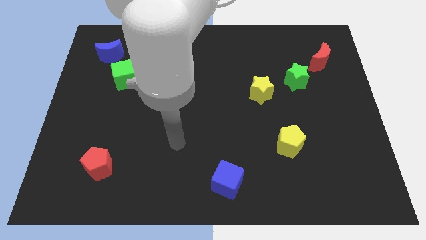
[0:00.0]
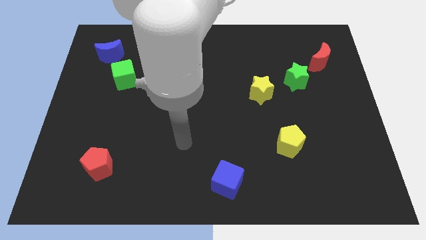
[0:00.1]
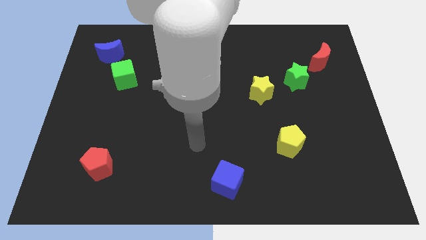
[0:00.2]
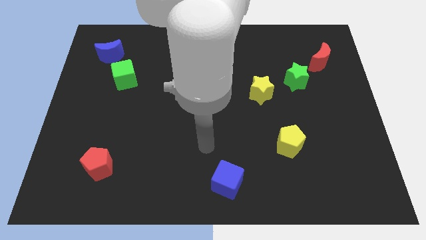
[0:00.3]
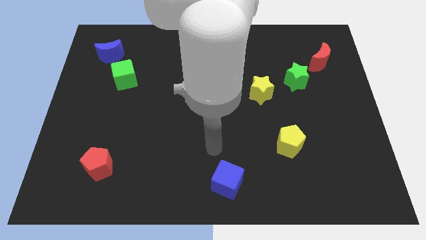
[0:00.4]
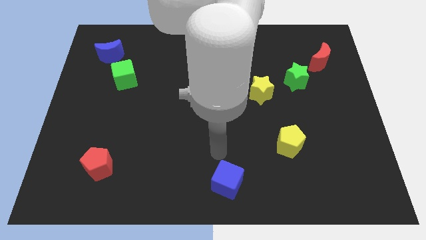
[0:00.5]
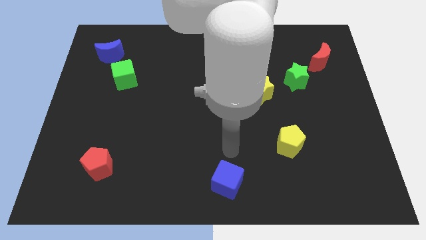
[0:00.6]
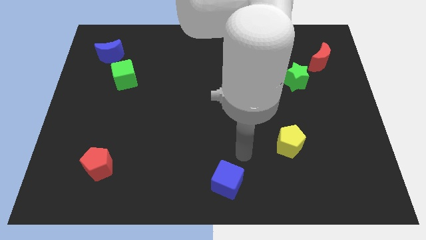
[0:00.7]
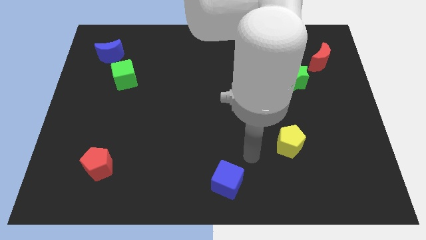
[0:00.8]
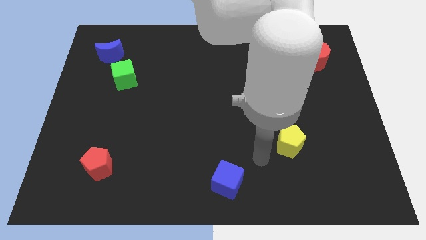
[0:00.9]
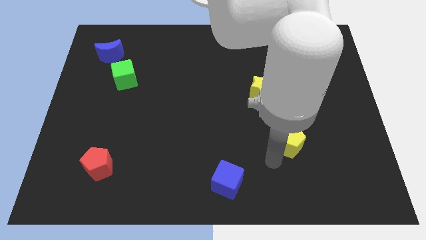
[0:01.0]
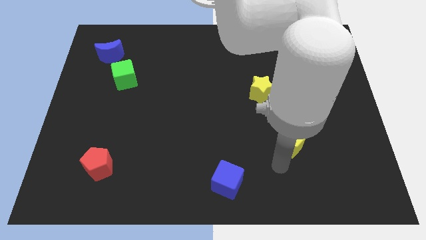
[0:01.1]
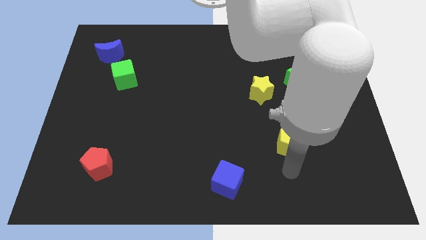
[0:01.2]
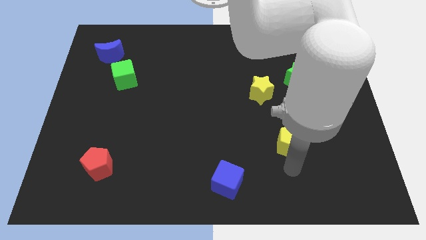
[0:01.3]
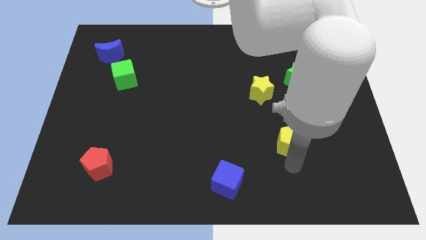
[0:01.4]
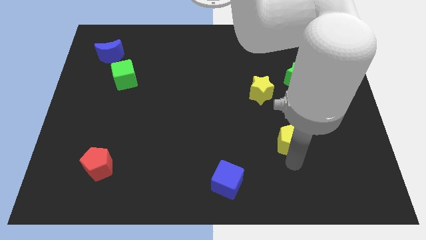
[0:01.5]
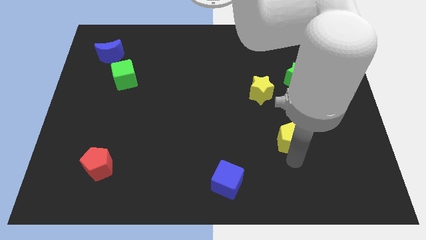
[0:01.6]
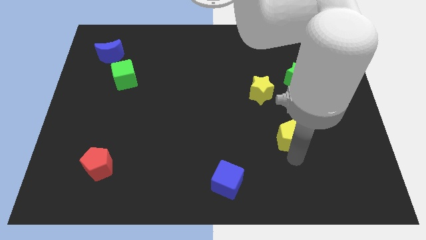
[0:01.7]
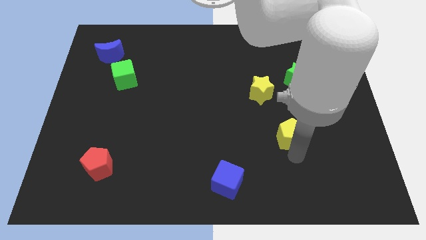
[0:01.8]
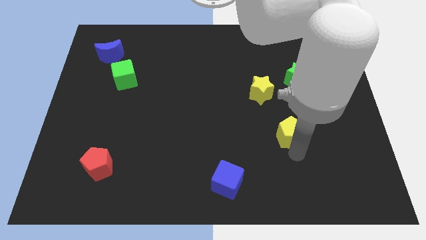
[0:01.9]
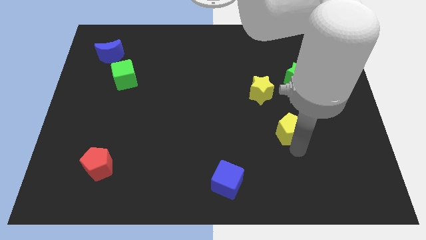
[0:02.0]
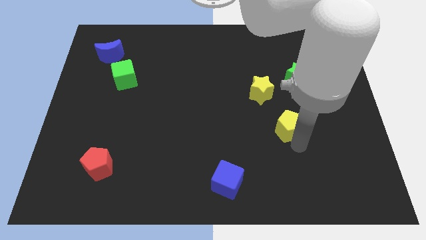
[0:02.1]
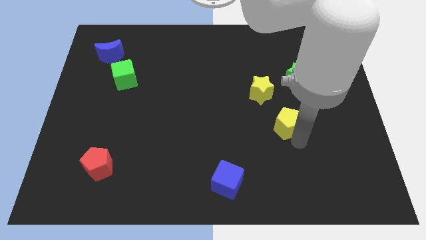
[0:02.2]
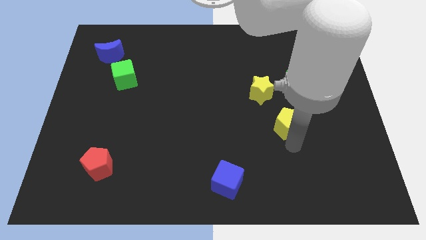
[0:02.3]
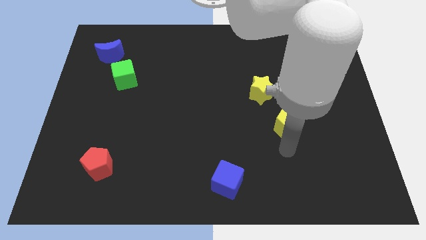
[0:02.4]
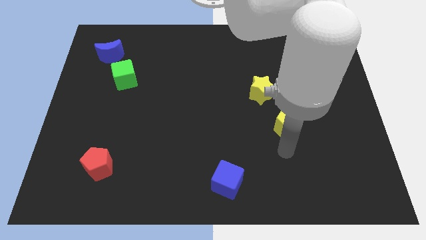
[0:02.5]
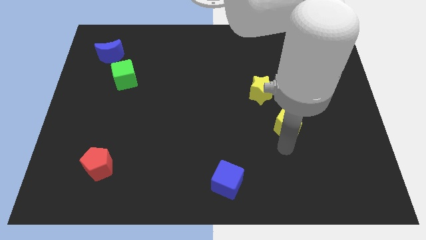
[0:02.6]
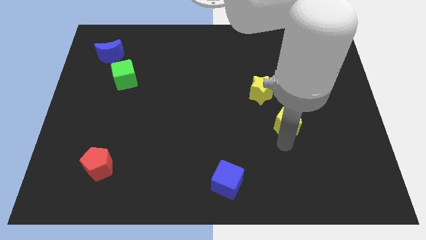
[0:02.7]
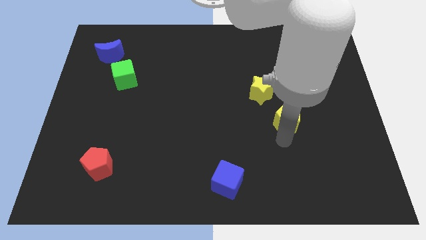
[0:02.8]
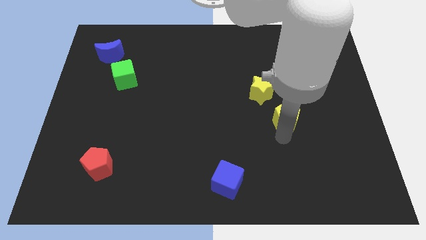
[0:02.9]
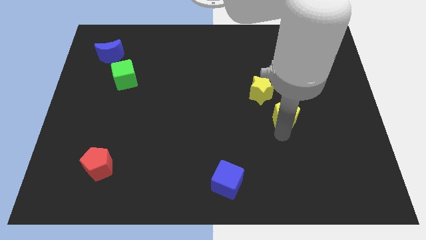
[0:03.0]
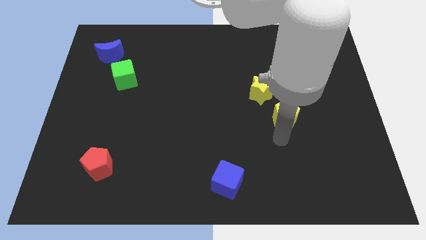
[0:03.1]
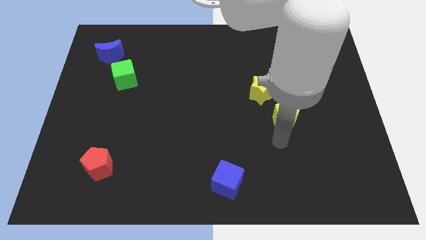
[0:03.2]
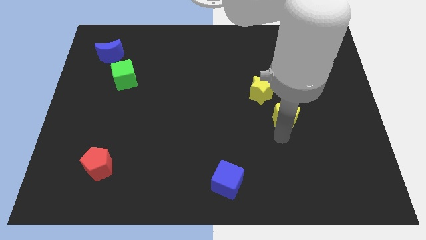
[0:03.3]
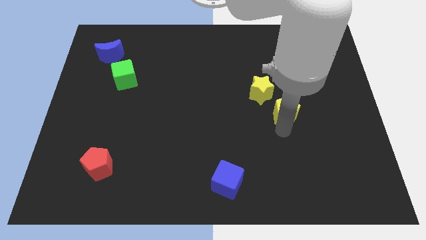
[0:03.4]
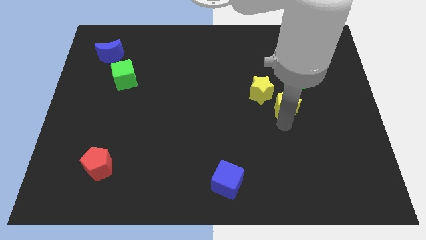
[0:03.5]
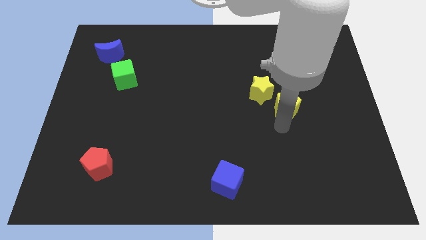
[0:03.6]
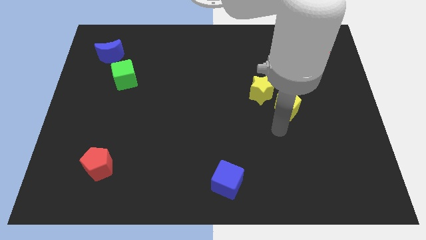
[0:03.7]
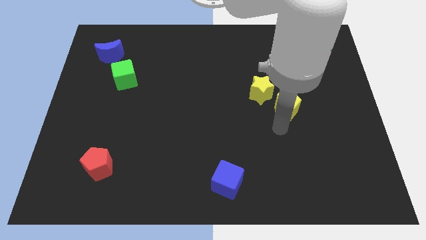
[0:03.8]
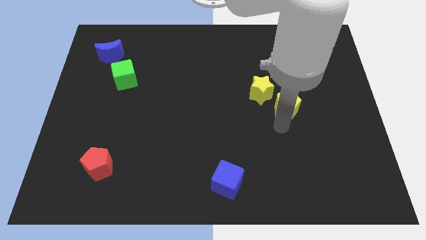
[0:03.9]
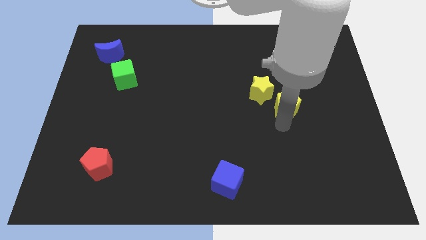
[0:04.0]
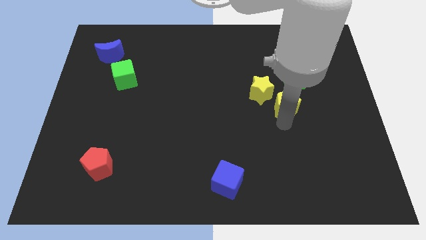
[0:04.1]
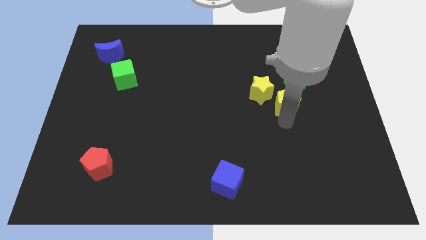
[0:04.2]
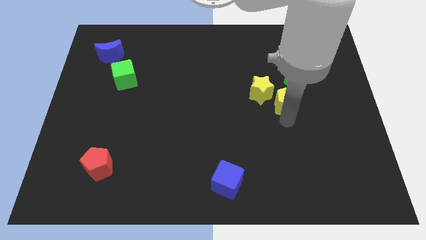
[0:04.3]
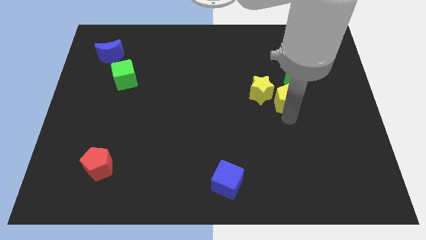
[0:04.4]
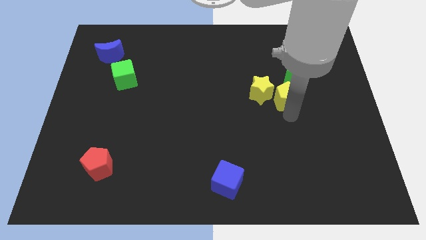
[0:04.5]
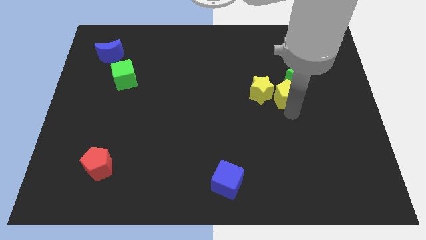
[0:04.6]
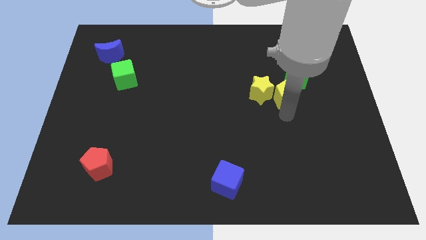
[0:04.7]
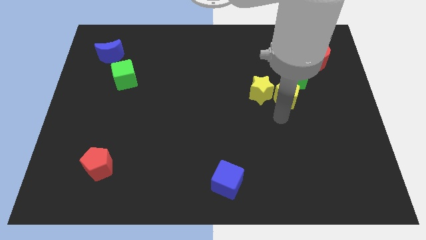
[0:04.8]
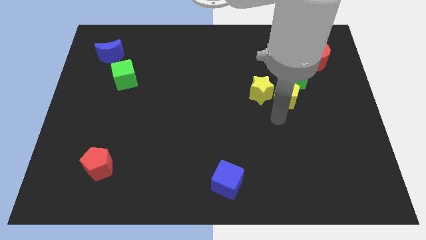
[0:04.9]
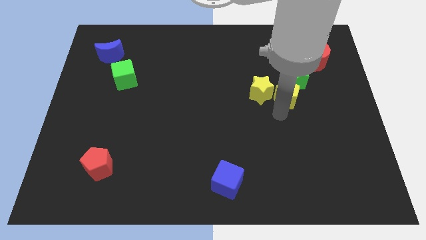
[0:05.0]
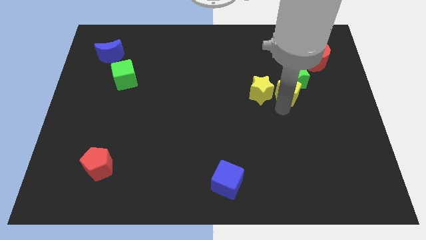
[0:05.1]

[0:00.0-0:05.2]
move the yellow pentagon towards the green star

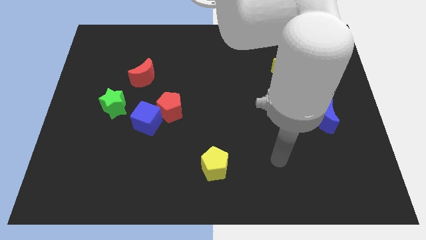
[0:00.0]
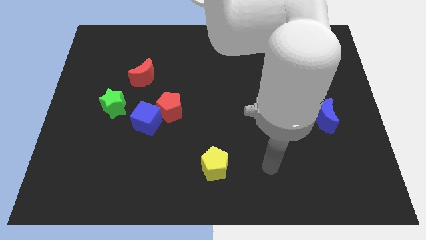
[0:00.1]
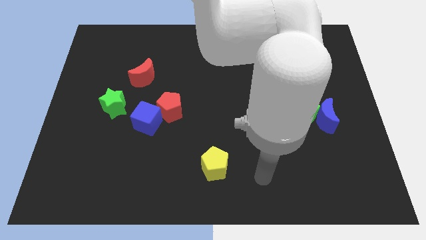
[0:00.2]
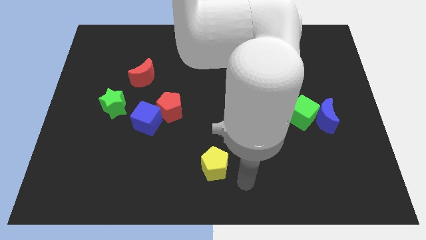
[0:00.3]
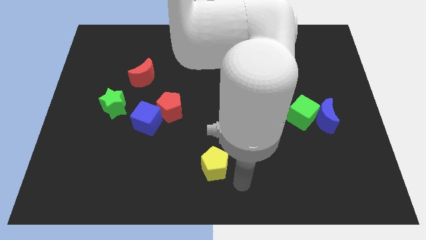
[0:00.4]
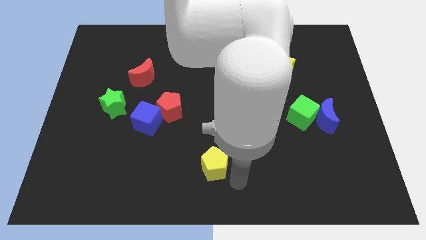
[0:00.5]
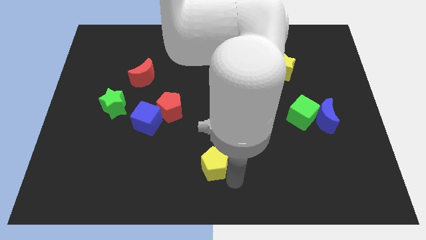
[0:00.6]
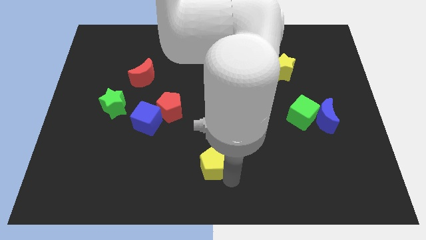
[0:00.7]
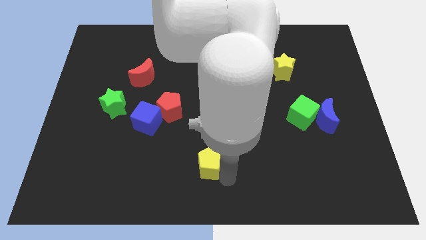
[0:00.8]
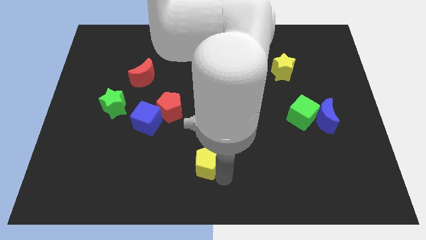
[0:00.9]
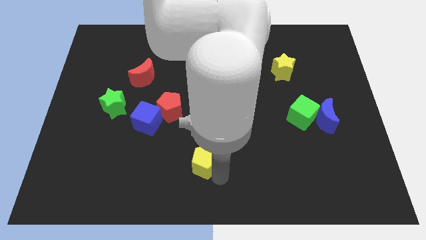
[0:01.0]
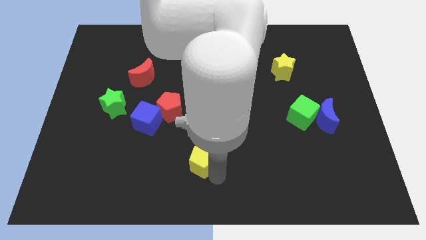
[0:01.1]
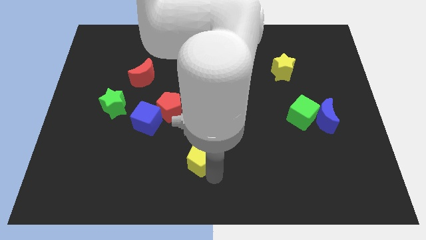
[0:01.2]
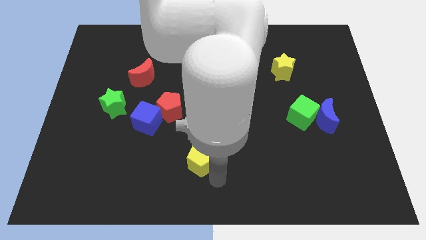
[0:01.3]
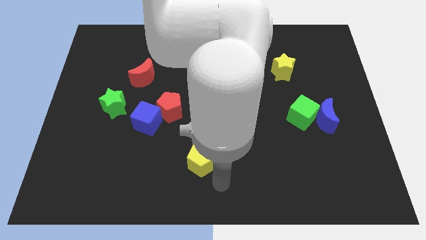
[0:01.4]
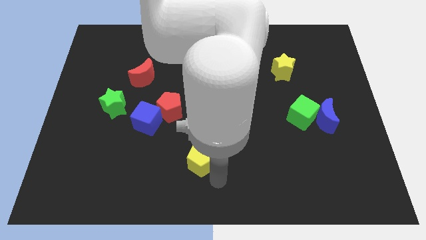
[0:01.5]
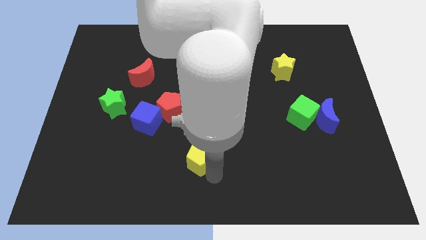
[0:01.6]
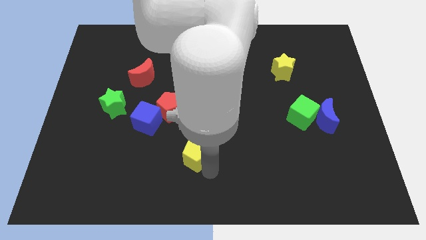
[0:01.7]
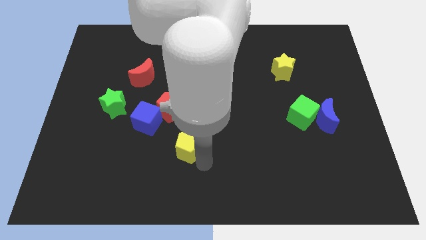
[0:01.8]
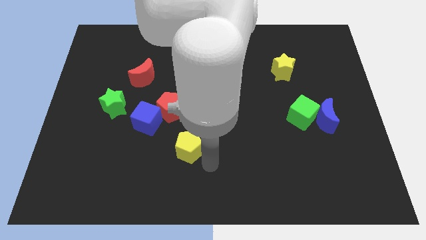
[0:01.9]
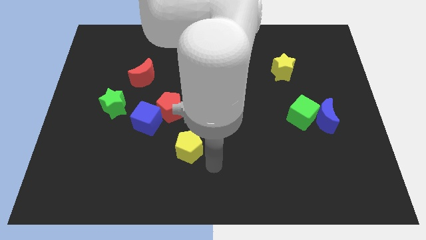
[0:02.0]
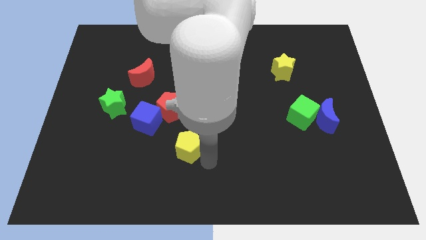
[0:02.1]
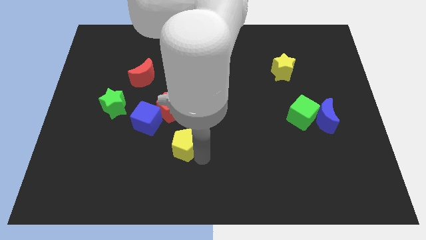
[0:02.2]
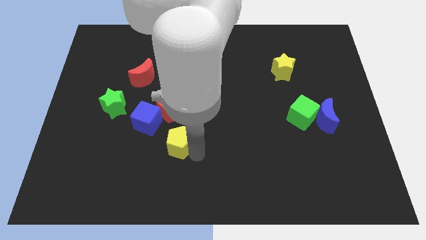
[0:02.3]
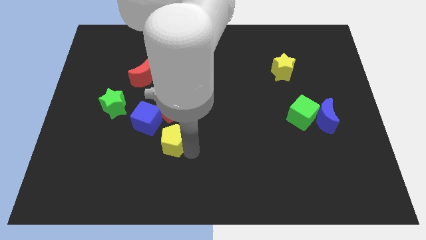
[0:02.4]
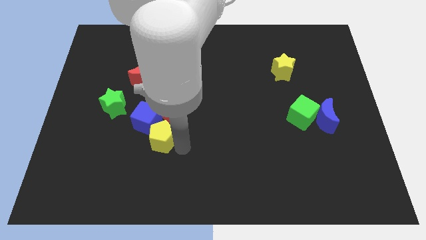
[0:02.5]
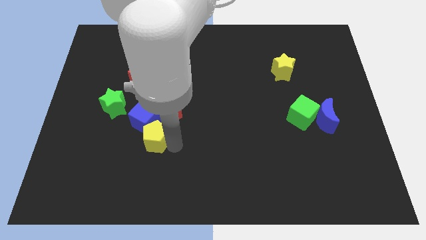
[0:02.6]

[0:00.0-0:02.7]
push the yellow pentagon next to the blue cube
